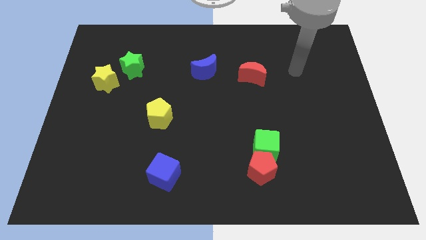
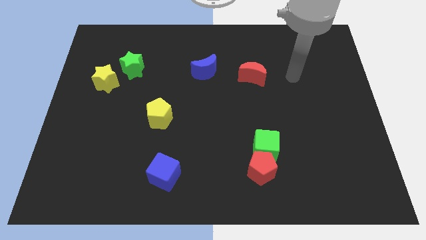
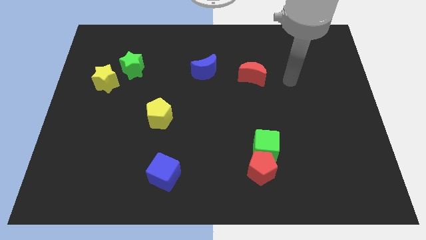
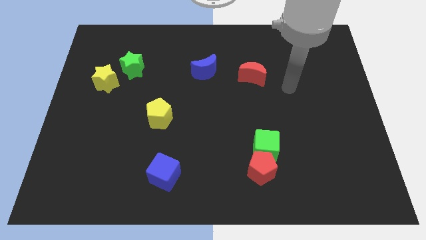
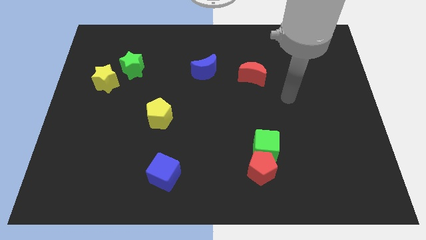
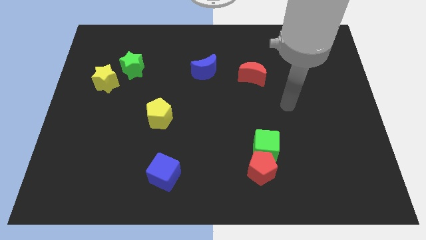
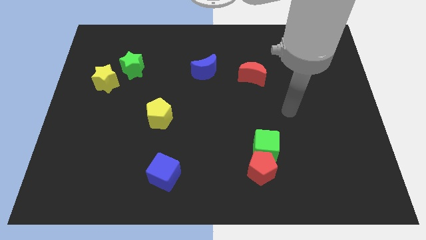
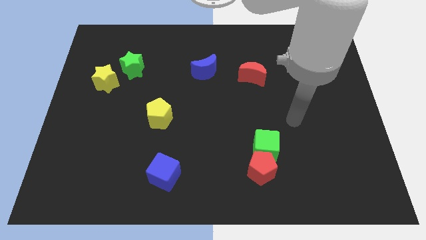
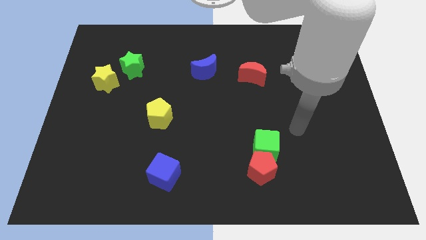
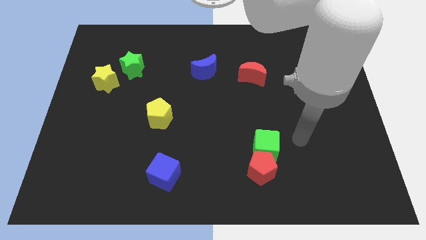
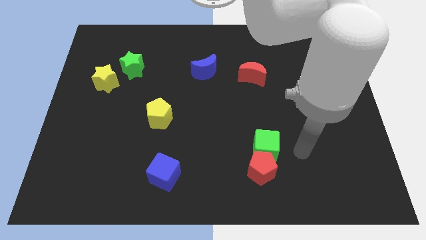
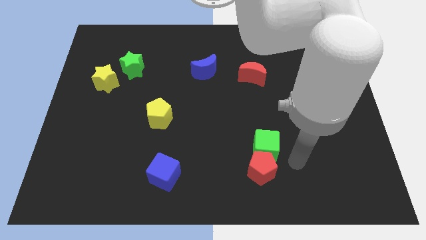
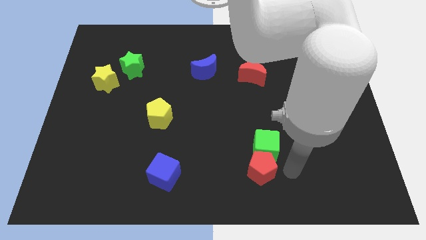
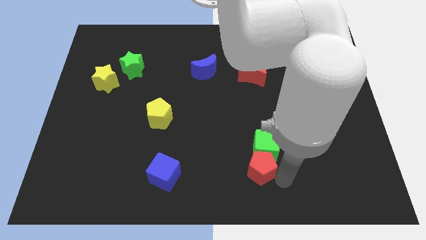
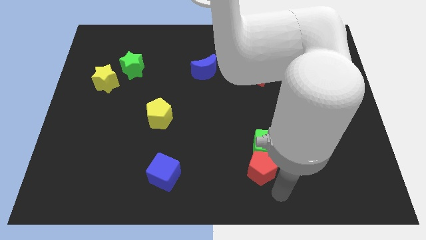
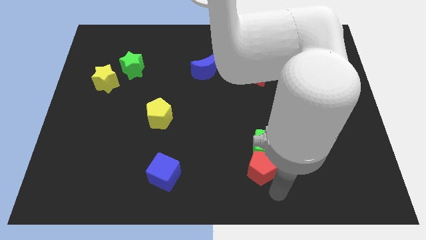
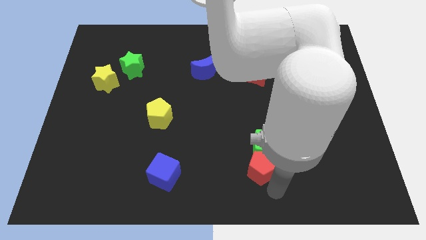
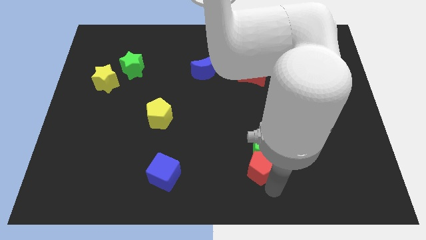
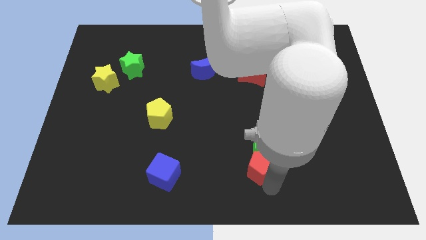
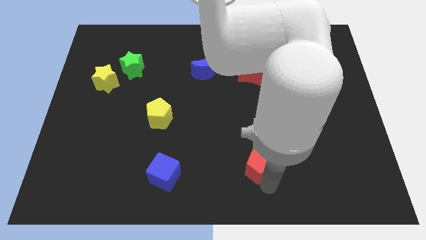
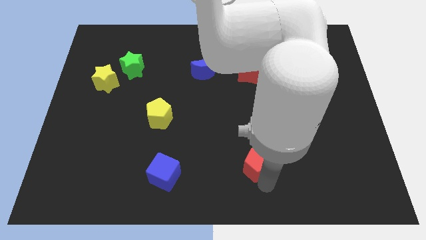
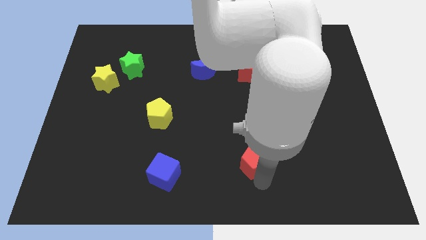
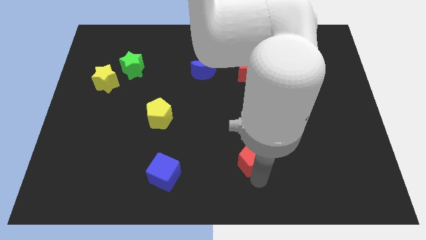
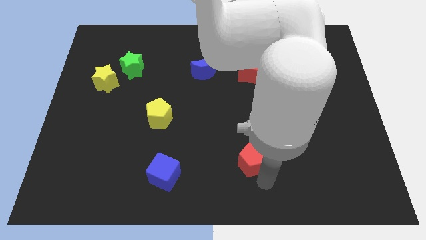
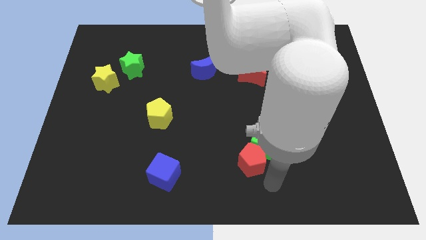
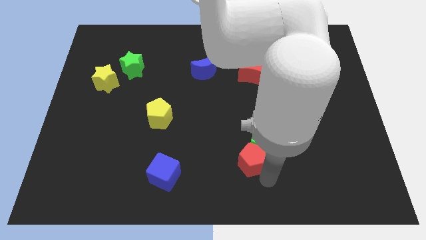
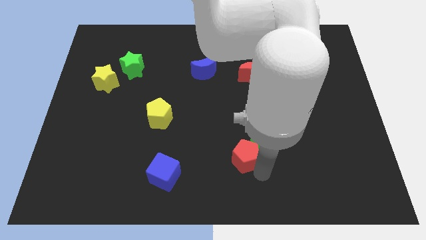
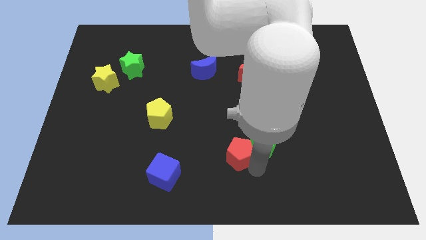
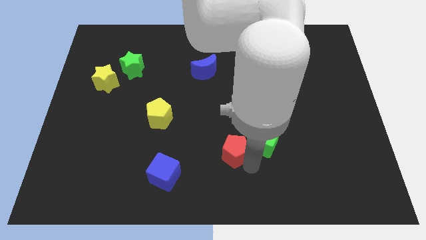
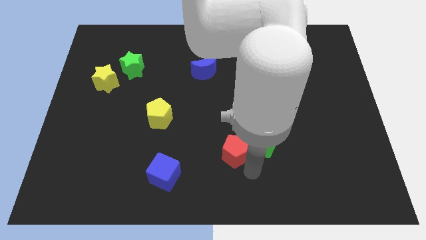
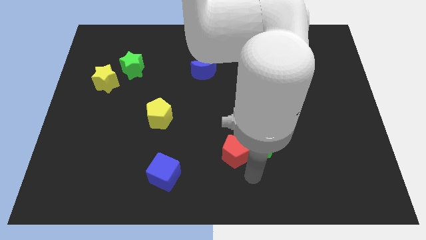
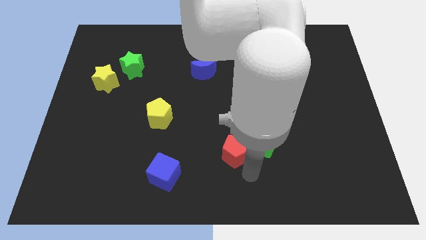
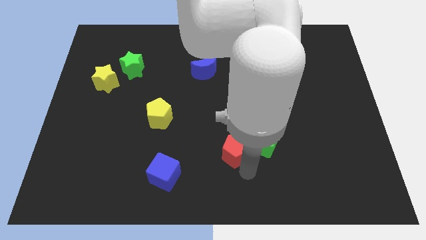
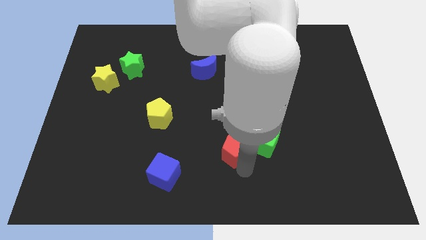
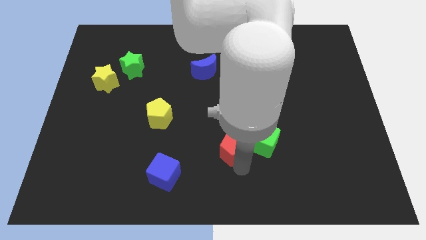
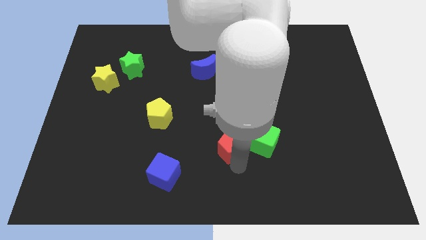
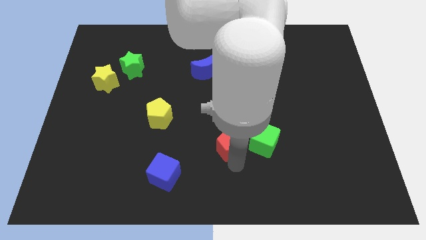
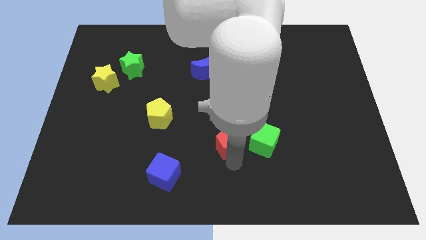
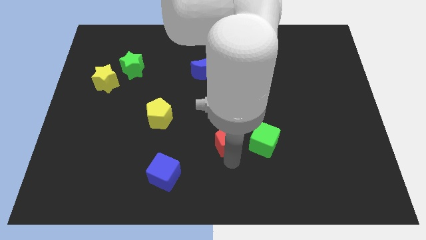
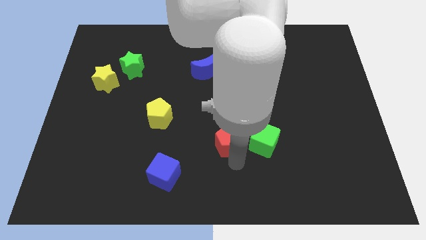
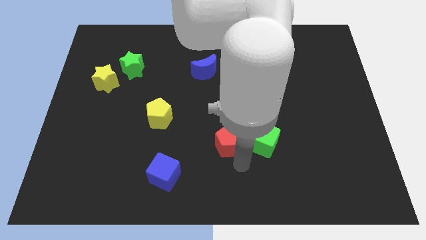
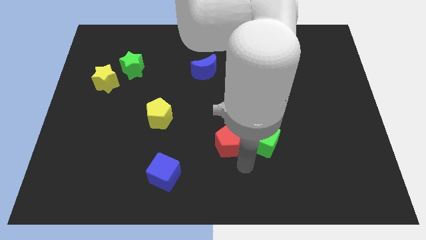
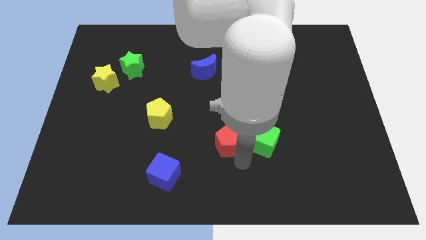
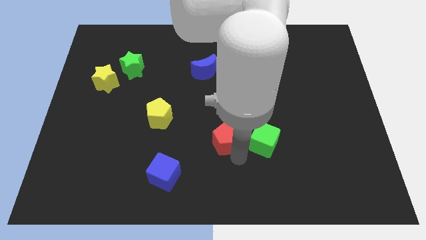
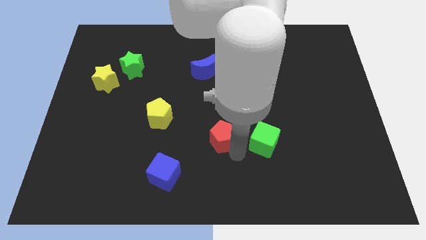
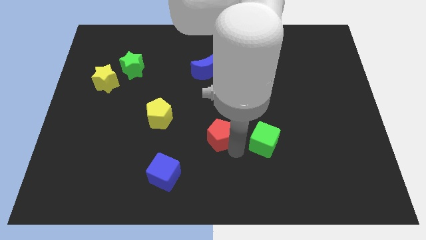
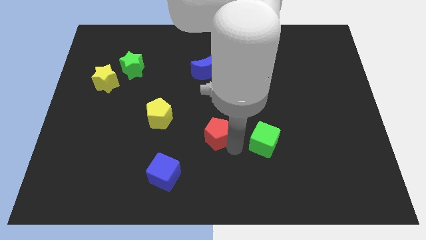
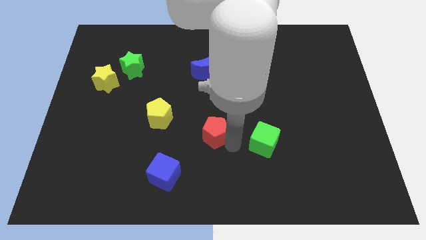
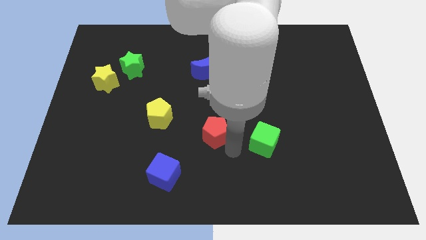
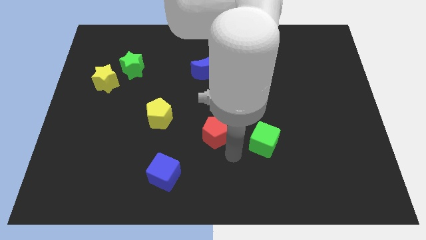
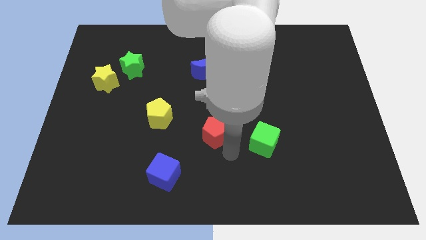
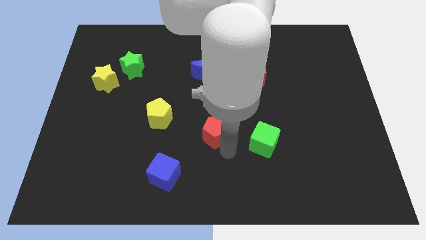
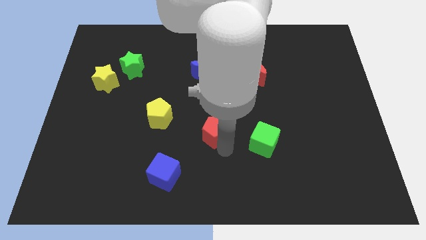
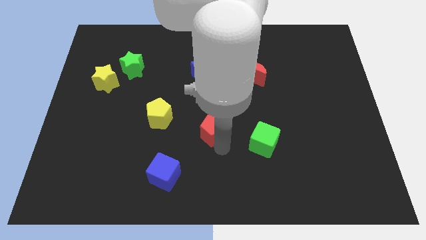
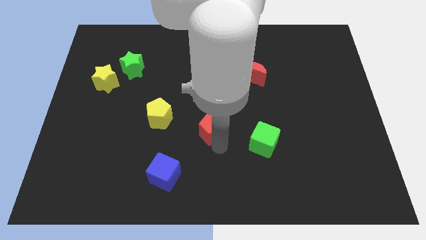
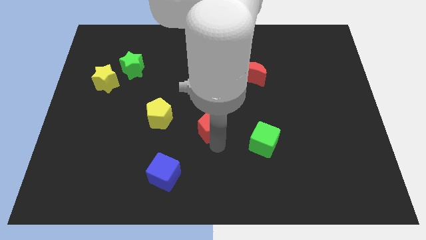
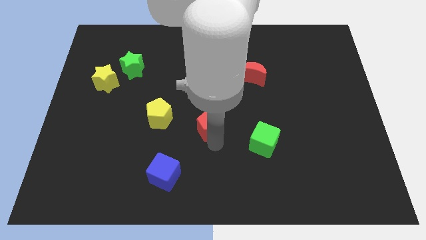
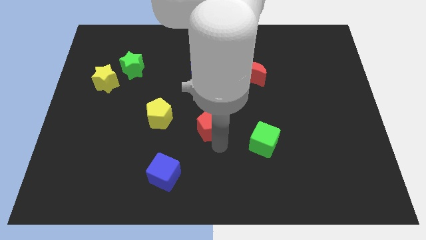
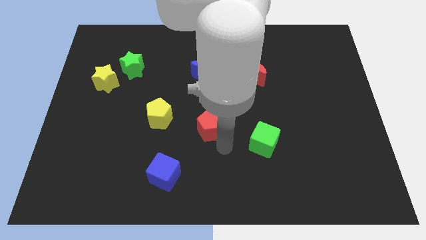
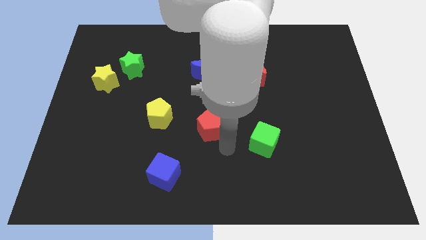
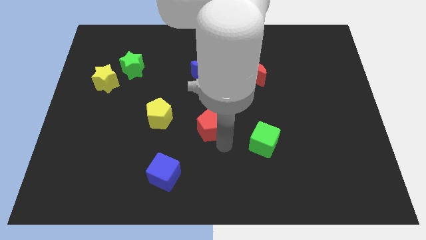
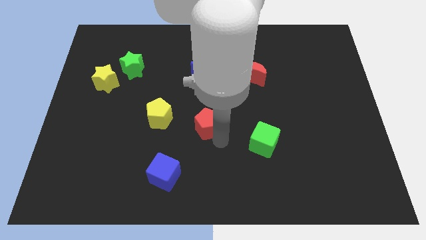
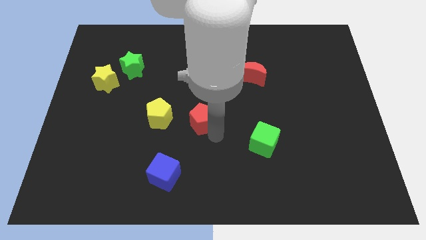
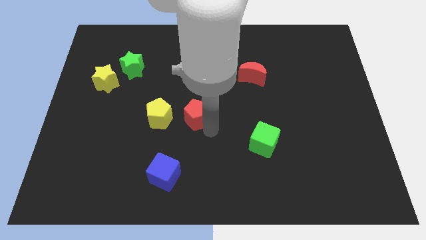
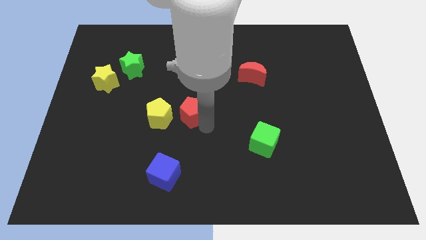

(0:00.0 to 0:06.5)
slide the red pentagon up and then left

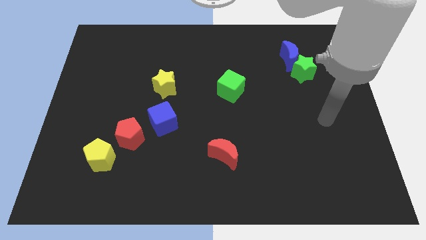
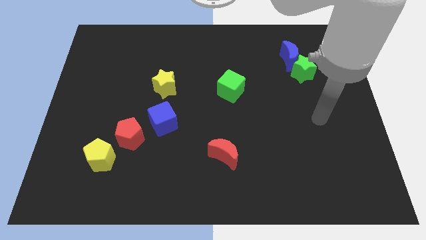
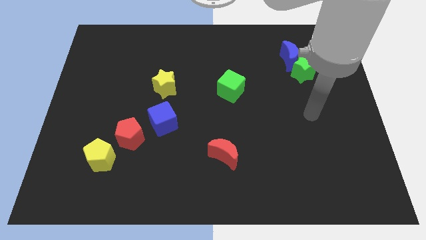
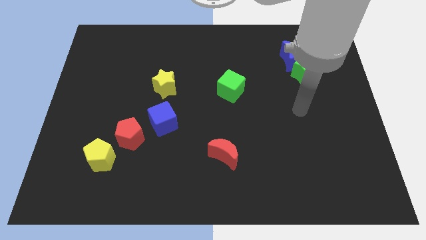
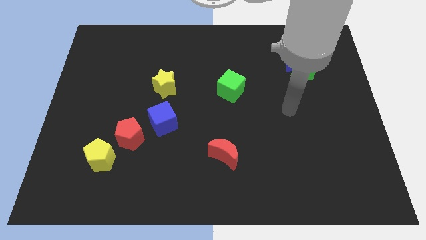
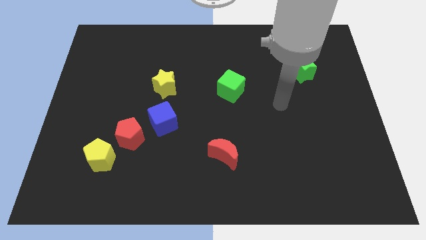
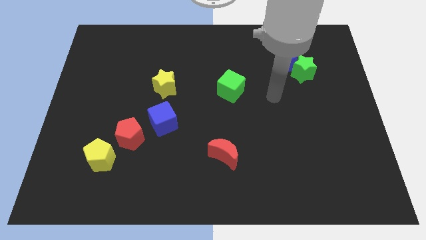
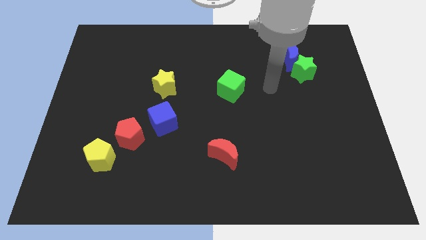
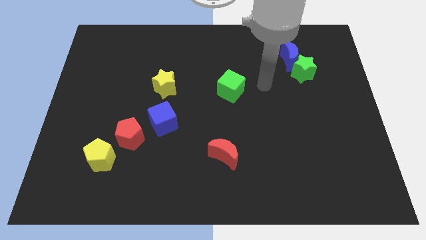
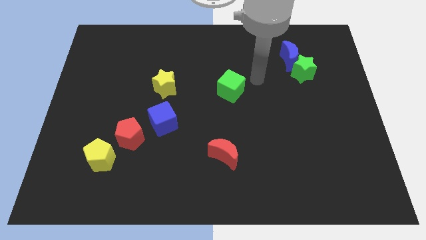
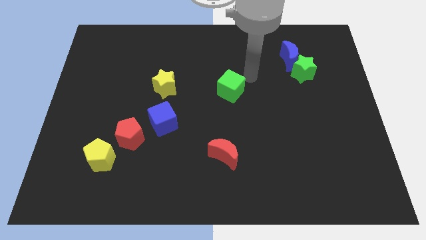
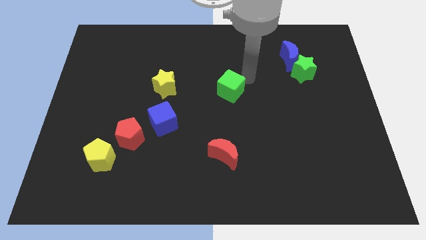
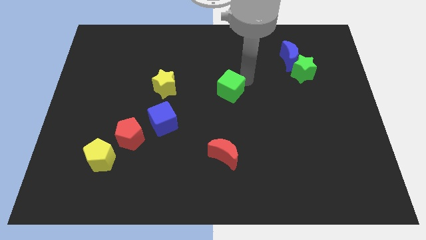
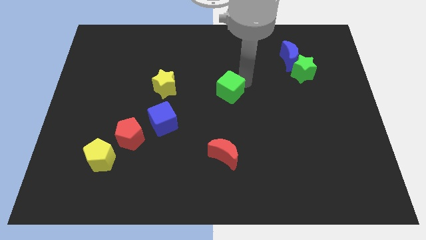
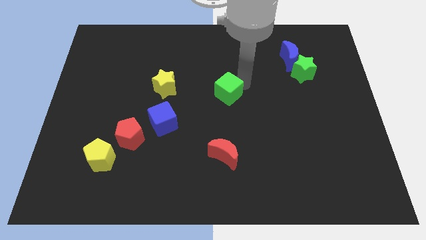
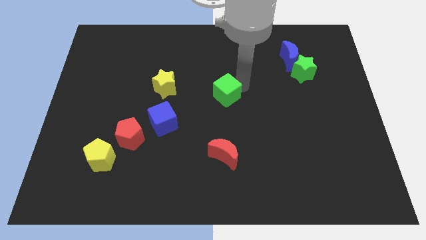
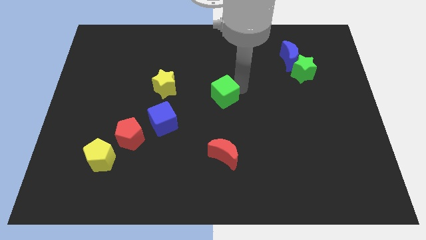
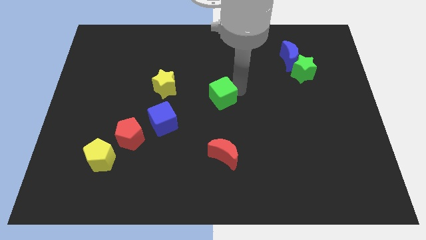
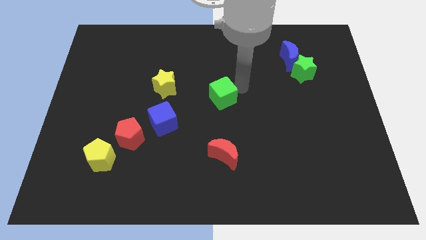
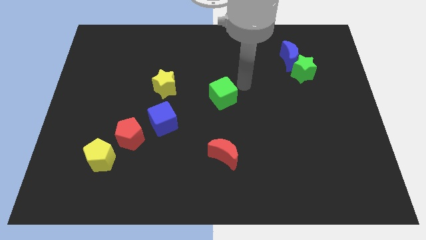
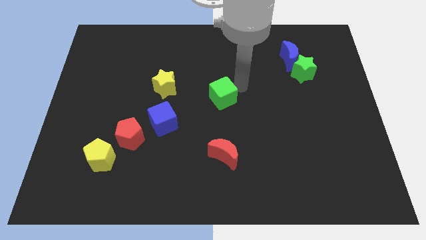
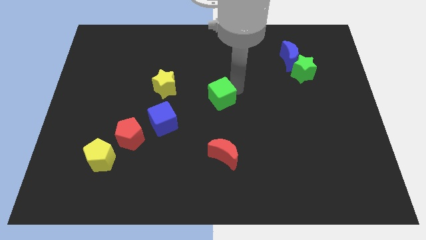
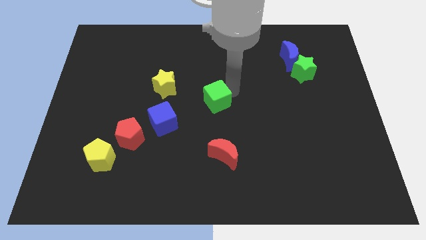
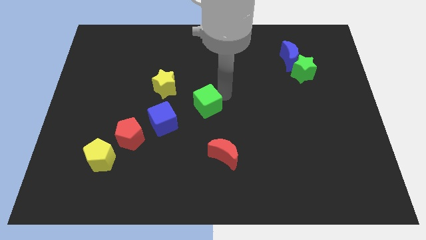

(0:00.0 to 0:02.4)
slightly slide the green cube diagonally downwards and to the left
